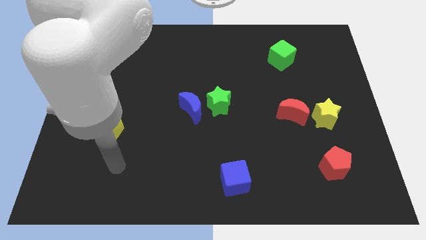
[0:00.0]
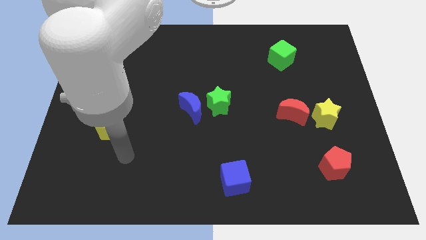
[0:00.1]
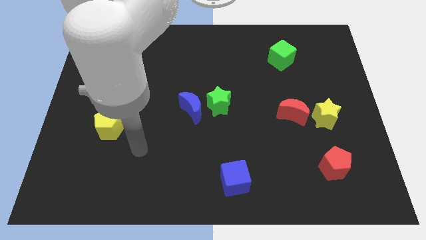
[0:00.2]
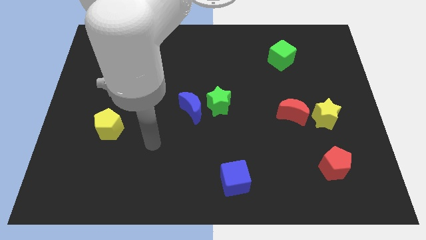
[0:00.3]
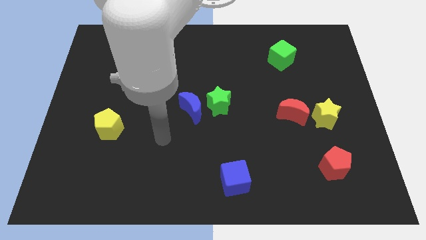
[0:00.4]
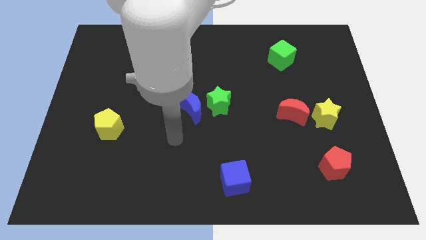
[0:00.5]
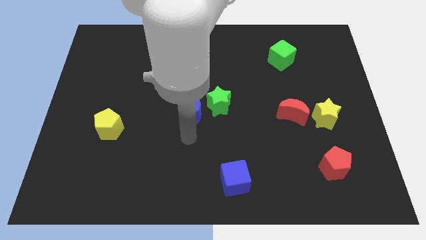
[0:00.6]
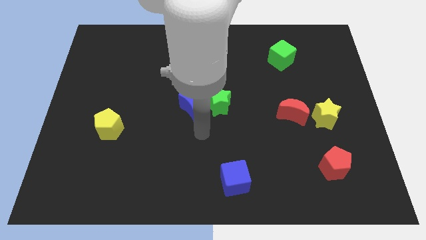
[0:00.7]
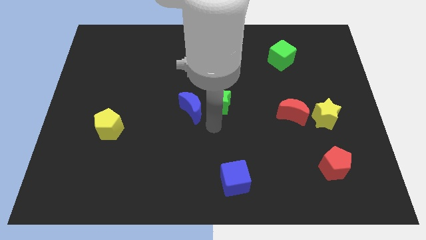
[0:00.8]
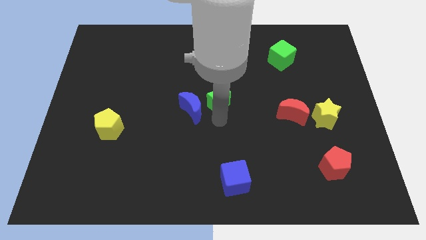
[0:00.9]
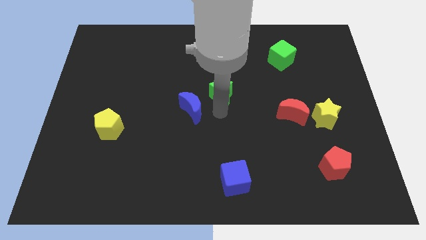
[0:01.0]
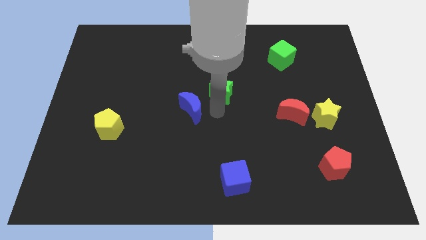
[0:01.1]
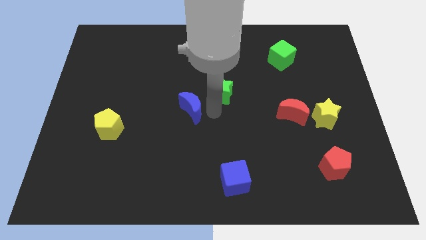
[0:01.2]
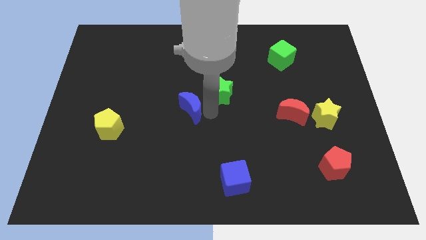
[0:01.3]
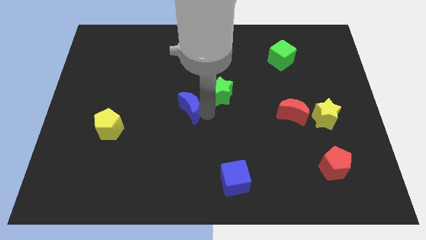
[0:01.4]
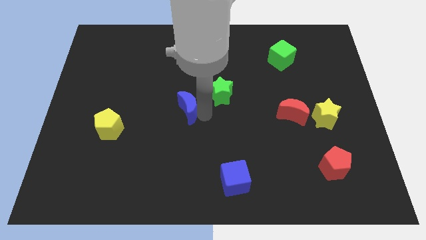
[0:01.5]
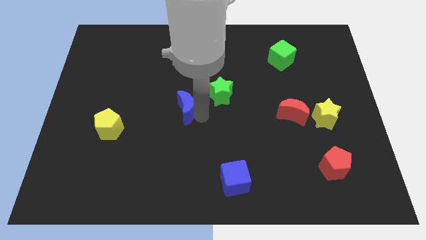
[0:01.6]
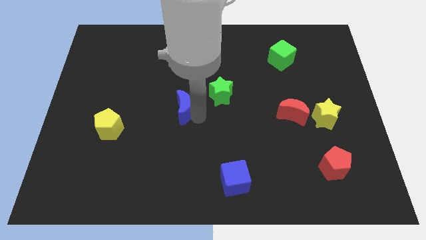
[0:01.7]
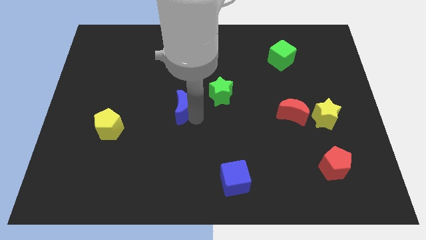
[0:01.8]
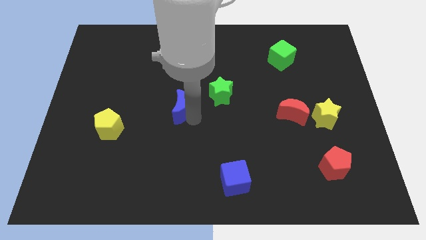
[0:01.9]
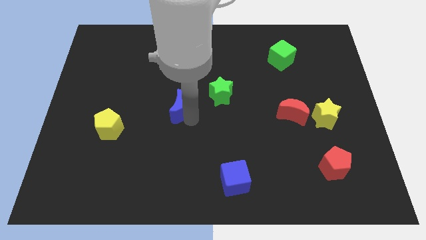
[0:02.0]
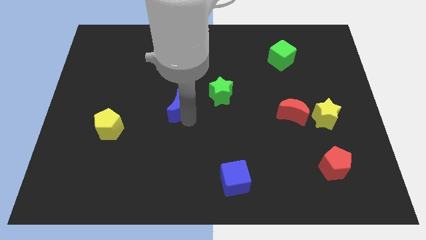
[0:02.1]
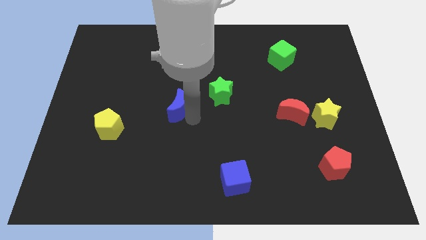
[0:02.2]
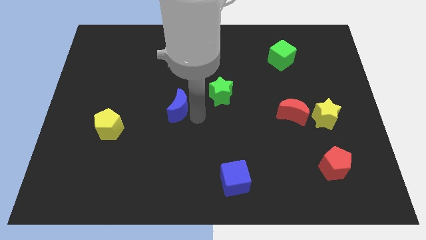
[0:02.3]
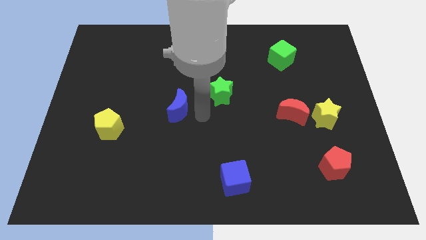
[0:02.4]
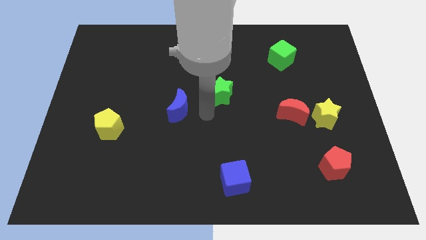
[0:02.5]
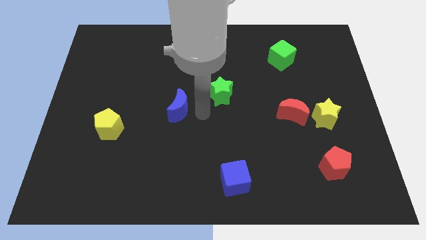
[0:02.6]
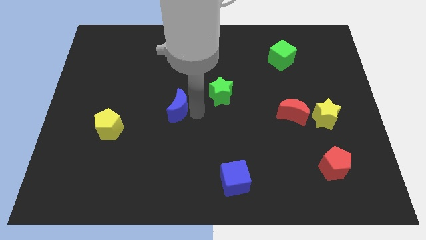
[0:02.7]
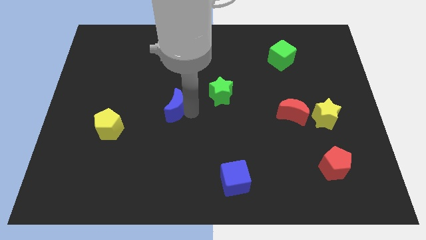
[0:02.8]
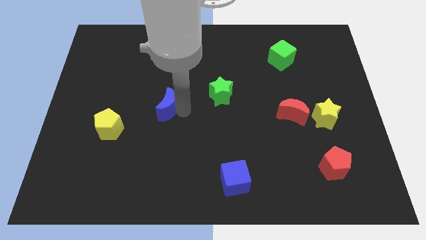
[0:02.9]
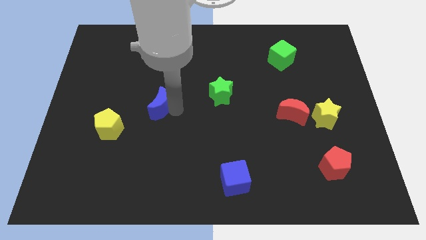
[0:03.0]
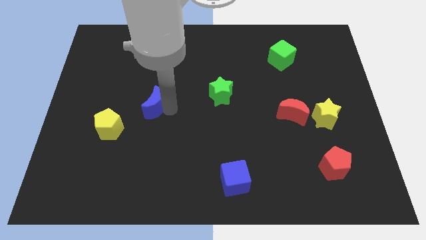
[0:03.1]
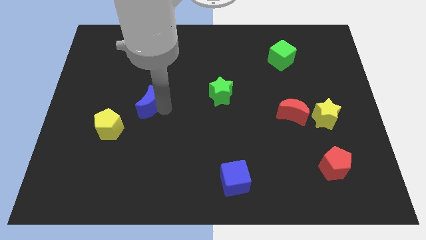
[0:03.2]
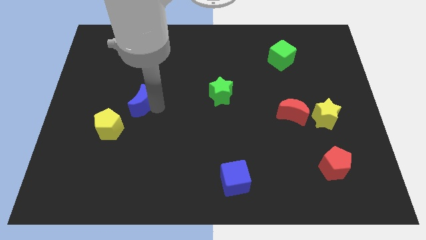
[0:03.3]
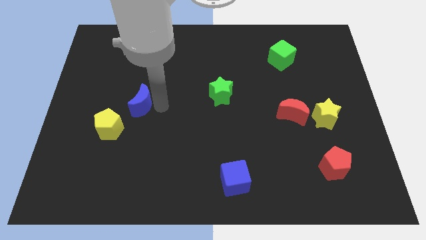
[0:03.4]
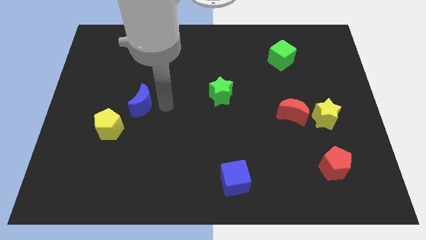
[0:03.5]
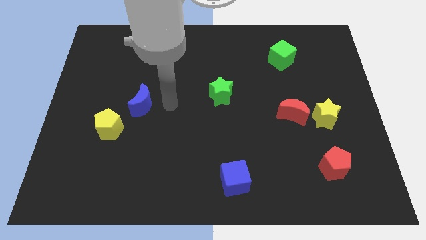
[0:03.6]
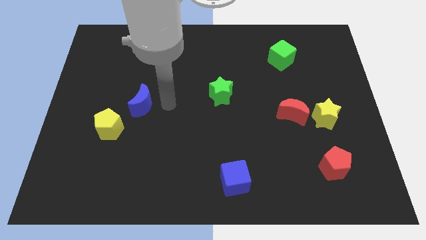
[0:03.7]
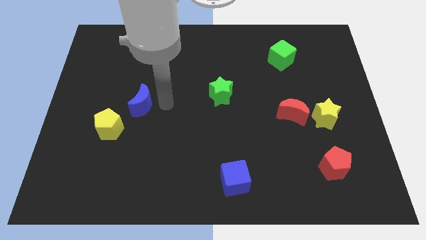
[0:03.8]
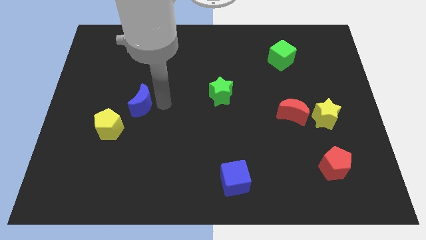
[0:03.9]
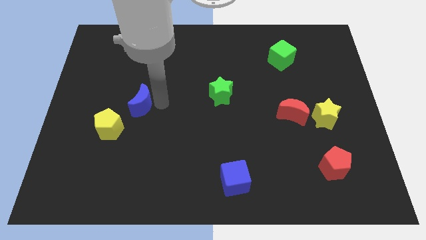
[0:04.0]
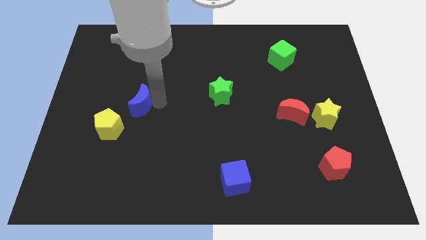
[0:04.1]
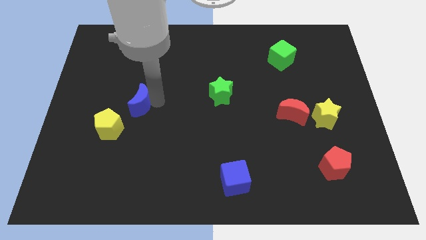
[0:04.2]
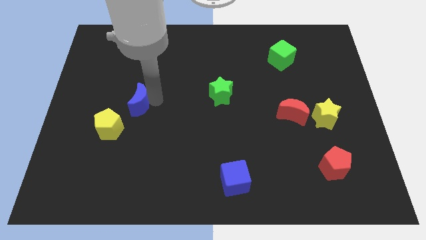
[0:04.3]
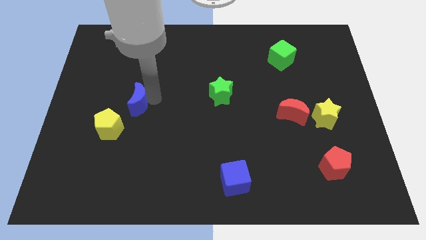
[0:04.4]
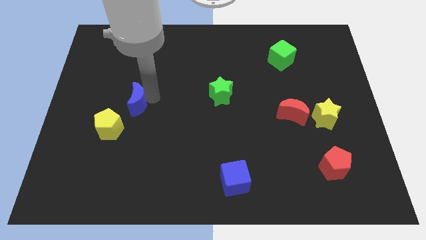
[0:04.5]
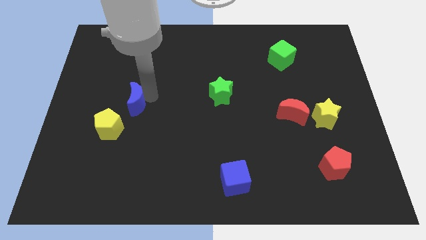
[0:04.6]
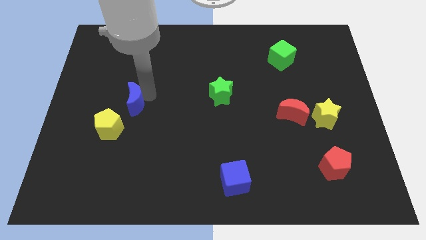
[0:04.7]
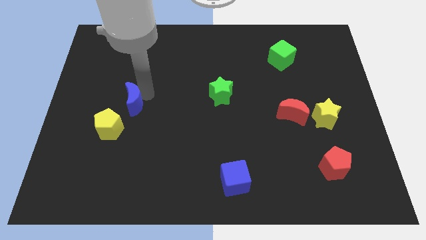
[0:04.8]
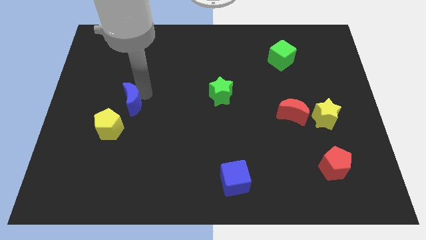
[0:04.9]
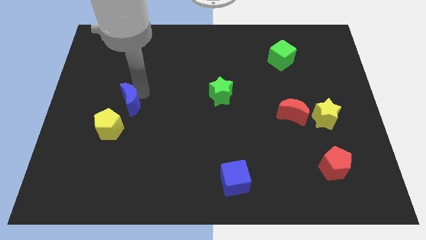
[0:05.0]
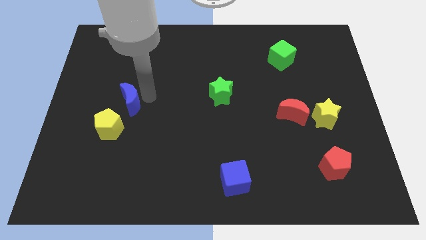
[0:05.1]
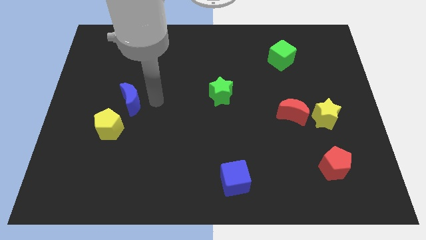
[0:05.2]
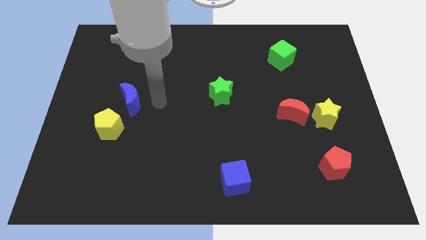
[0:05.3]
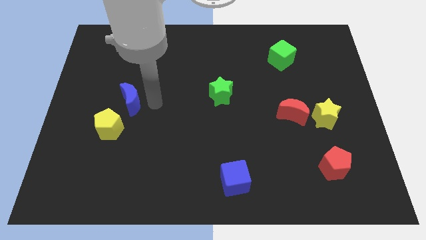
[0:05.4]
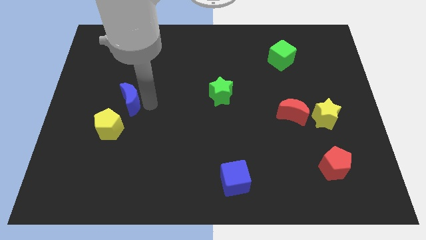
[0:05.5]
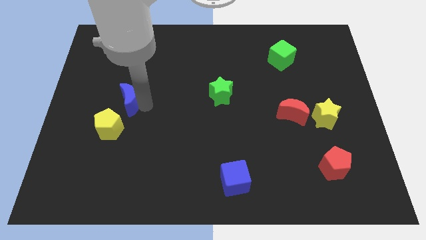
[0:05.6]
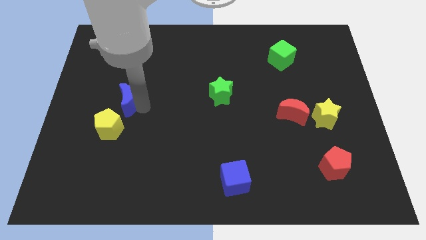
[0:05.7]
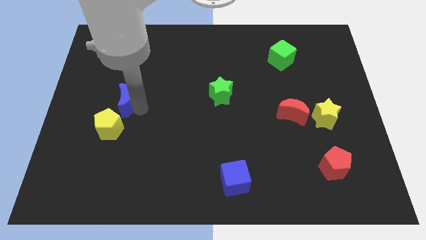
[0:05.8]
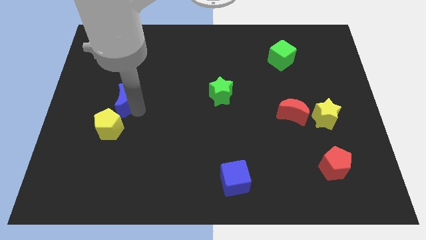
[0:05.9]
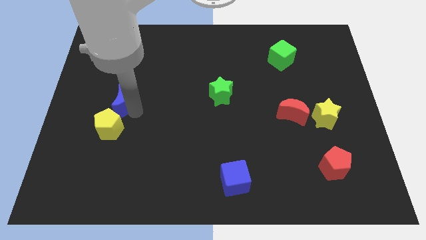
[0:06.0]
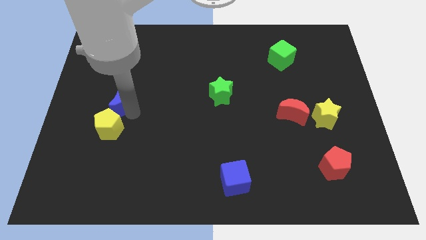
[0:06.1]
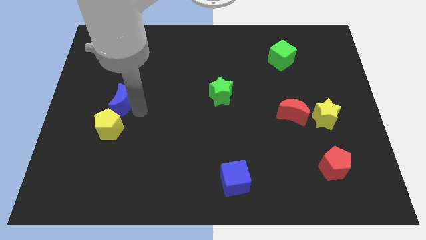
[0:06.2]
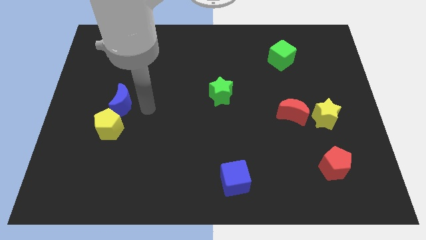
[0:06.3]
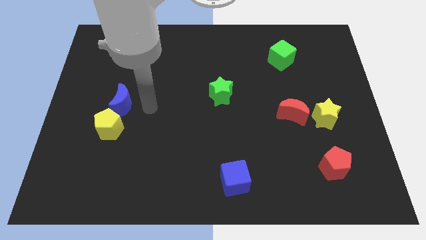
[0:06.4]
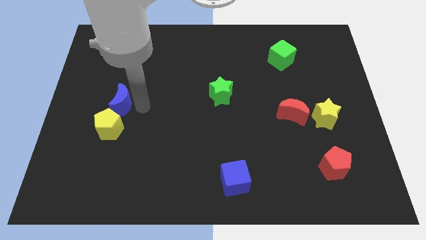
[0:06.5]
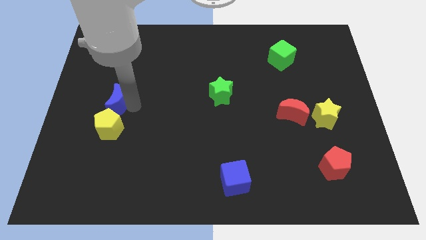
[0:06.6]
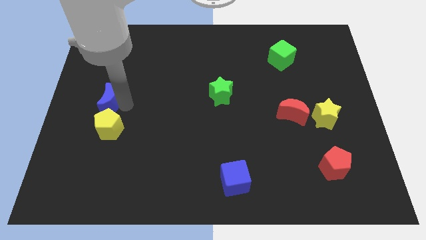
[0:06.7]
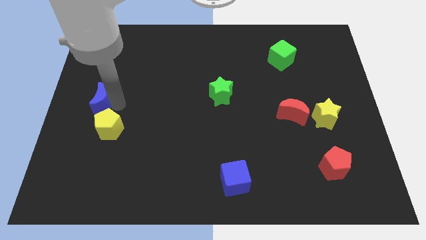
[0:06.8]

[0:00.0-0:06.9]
put the blue moon to the left side of the board
